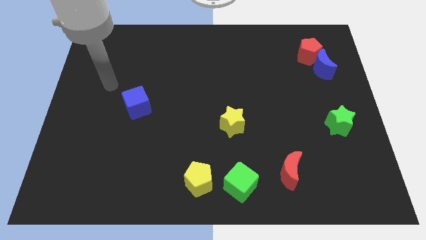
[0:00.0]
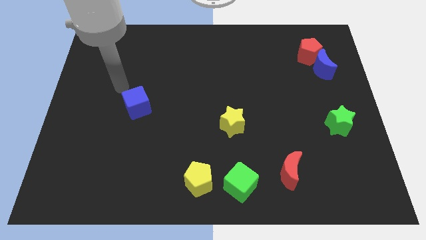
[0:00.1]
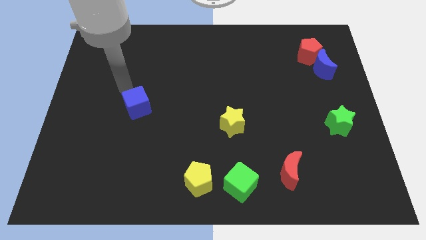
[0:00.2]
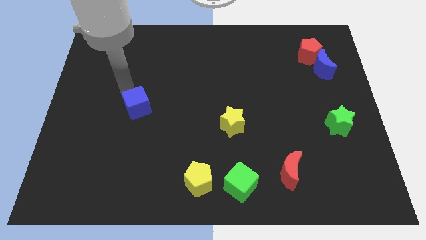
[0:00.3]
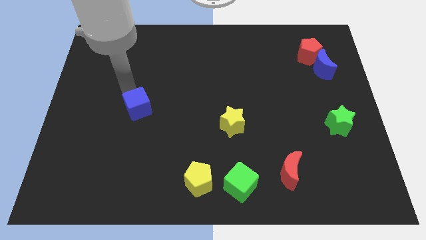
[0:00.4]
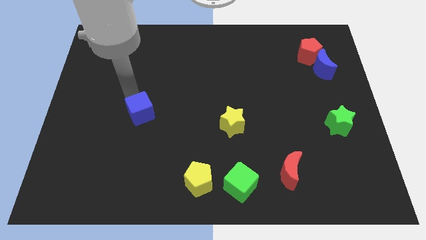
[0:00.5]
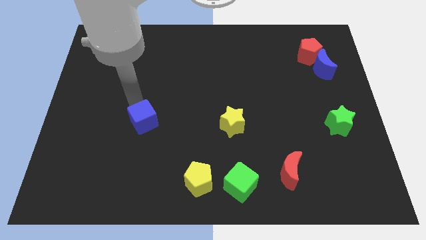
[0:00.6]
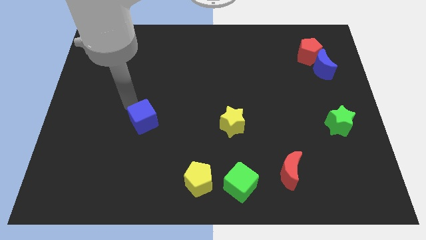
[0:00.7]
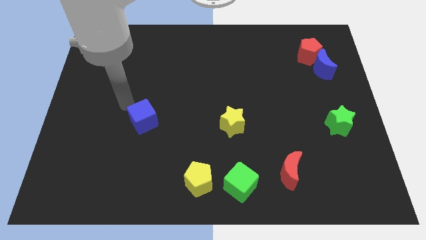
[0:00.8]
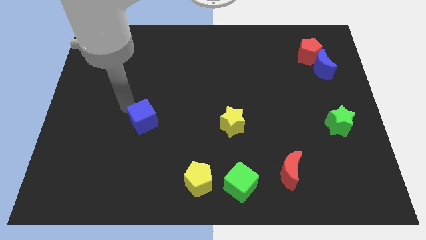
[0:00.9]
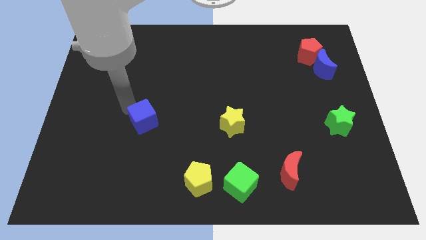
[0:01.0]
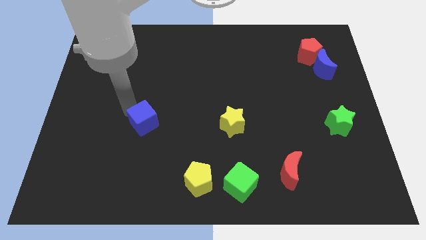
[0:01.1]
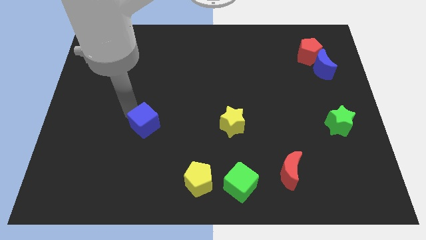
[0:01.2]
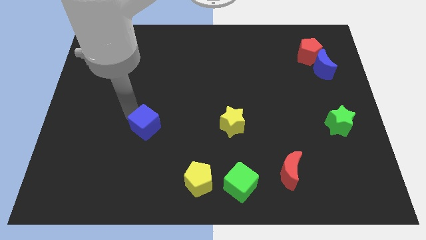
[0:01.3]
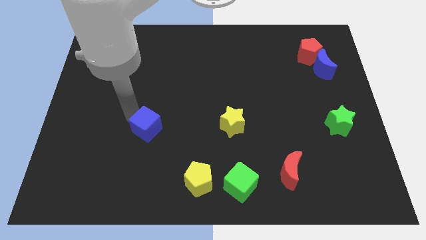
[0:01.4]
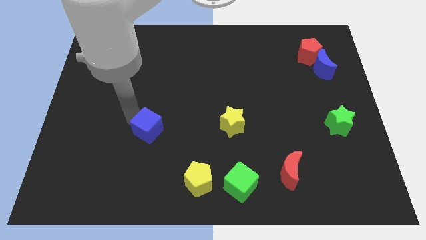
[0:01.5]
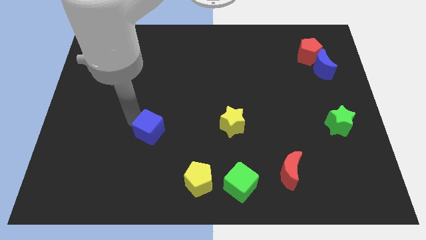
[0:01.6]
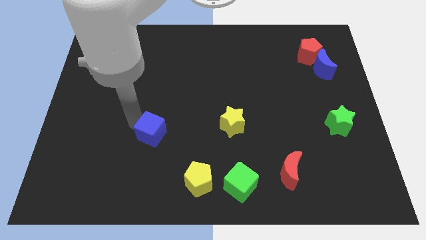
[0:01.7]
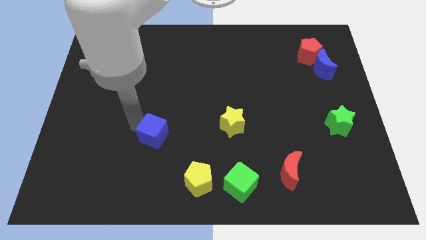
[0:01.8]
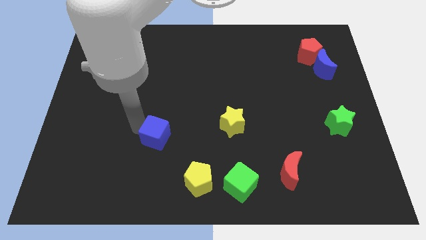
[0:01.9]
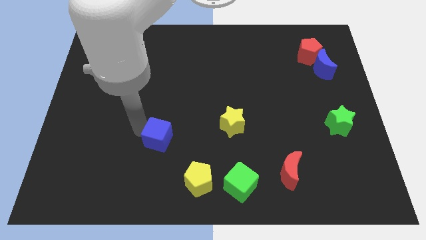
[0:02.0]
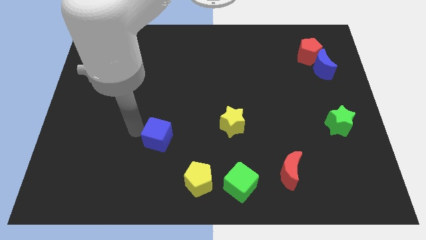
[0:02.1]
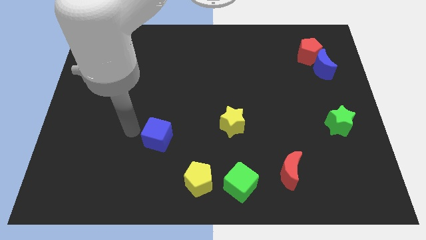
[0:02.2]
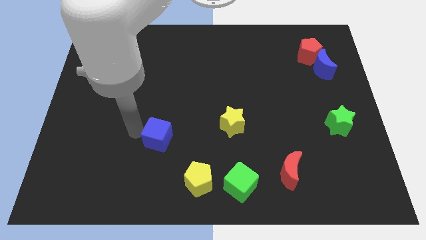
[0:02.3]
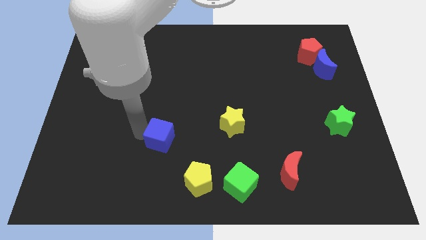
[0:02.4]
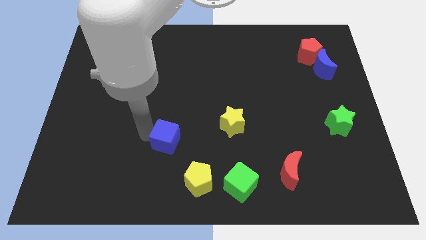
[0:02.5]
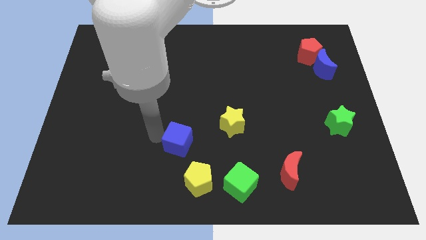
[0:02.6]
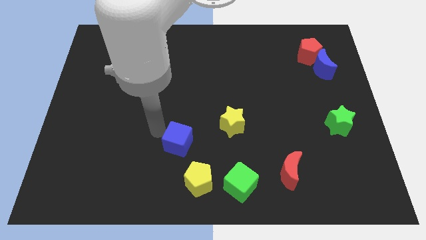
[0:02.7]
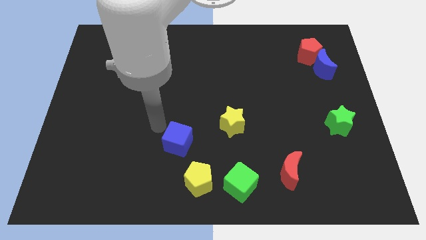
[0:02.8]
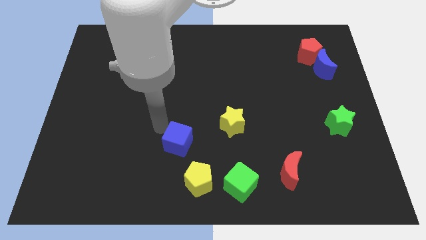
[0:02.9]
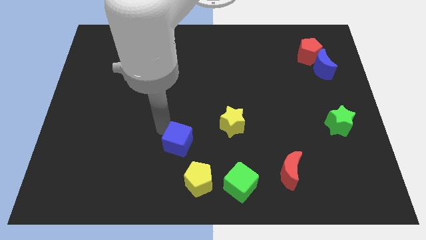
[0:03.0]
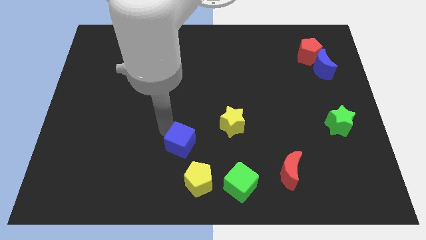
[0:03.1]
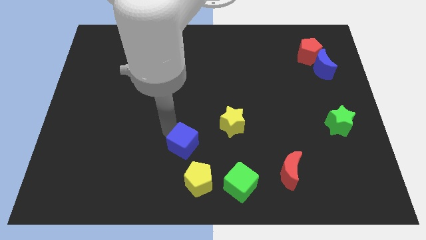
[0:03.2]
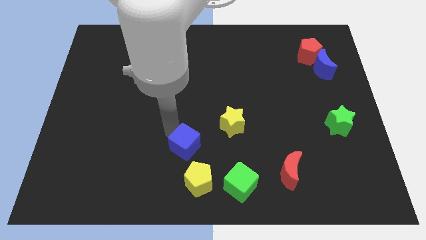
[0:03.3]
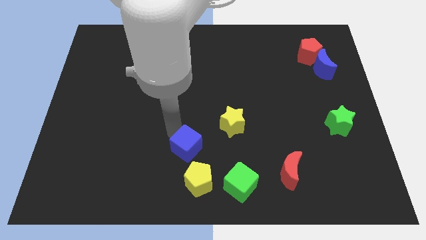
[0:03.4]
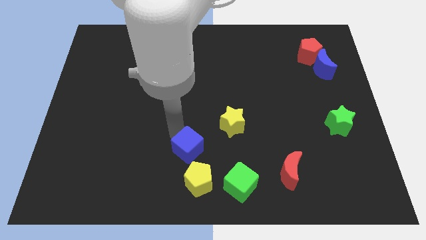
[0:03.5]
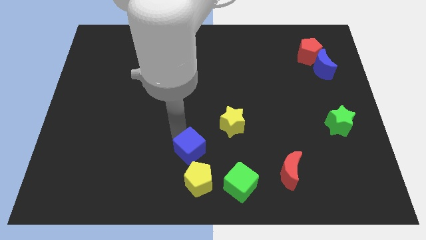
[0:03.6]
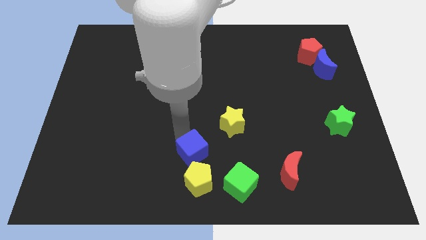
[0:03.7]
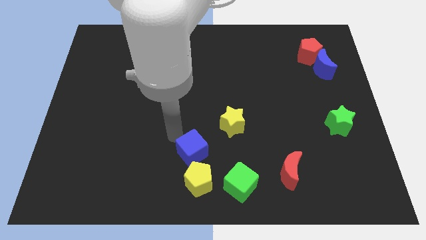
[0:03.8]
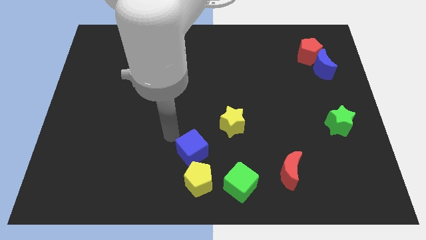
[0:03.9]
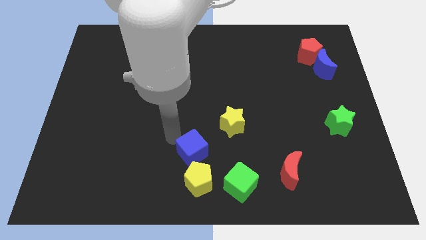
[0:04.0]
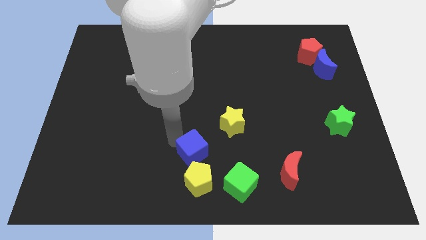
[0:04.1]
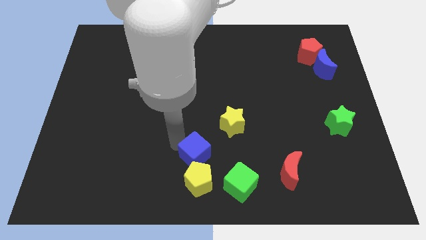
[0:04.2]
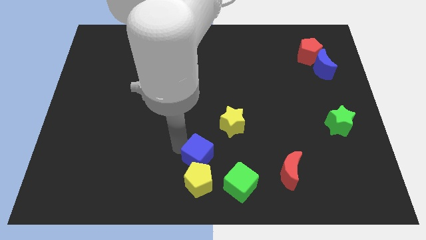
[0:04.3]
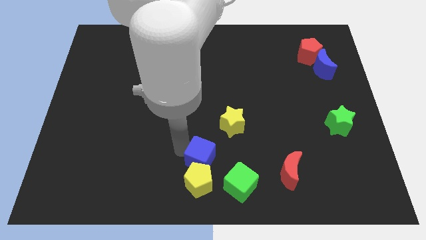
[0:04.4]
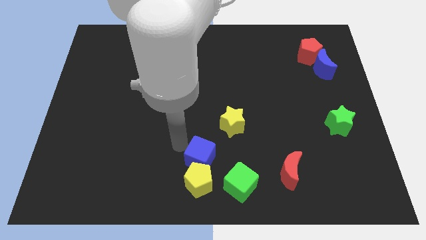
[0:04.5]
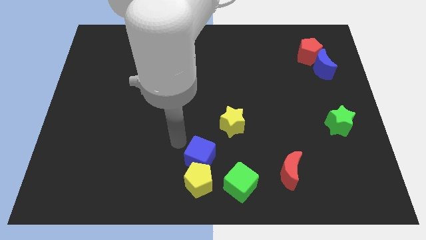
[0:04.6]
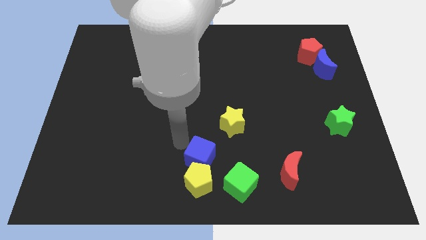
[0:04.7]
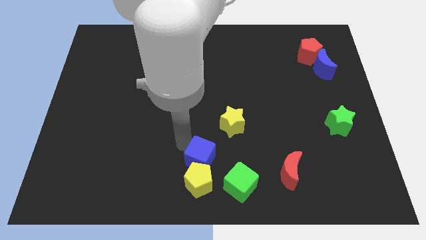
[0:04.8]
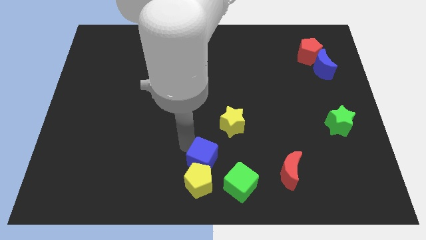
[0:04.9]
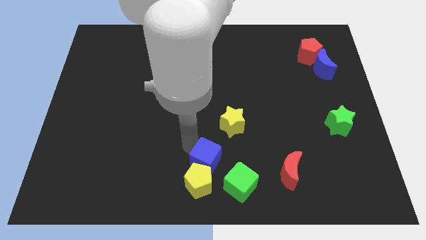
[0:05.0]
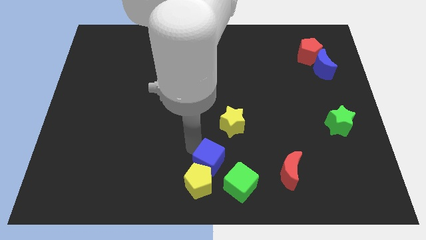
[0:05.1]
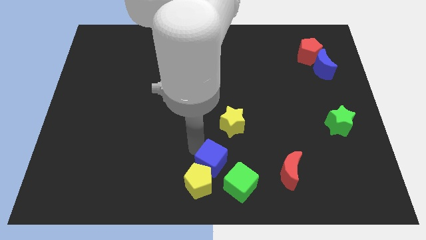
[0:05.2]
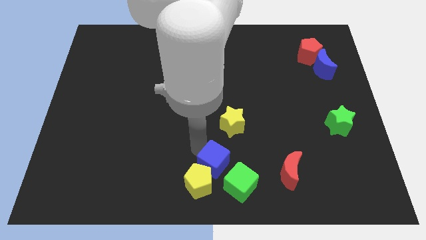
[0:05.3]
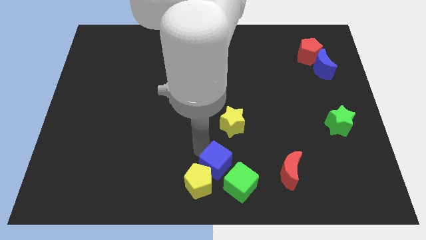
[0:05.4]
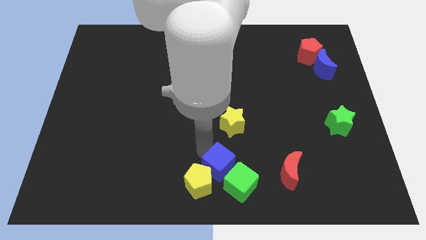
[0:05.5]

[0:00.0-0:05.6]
put the blue cube towards the green cube

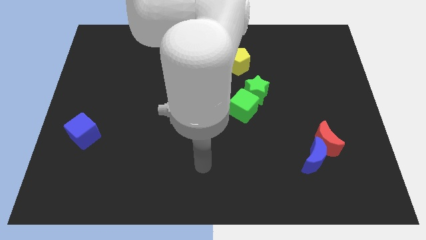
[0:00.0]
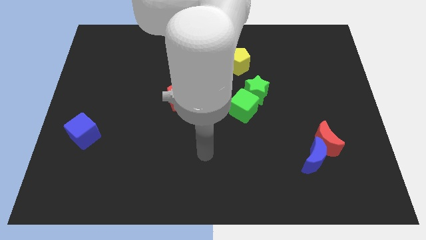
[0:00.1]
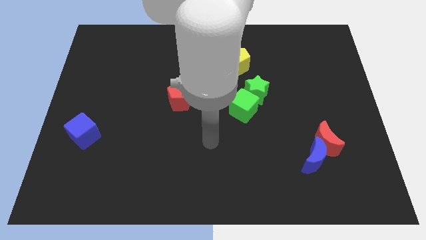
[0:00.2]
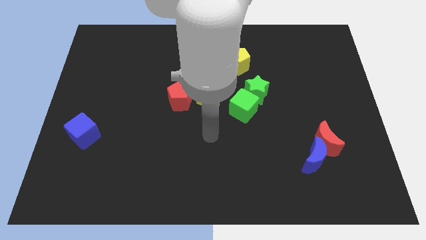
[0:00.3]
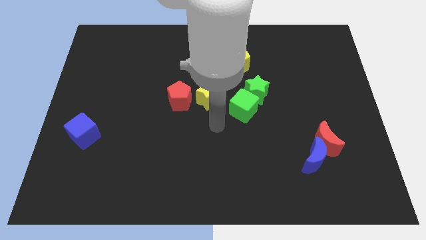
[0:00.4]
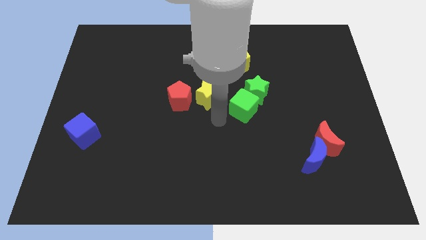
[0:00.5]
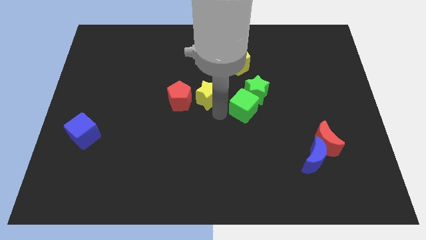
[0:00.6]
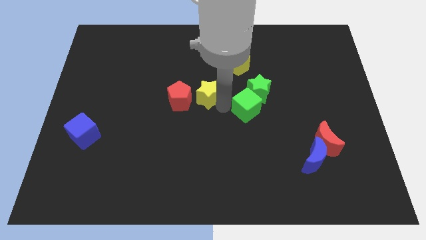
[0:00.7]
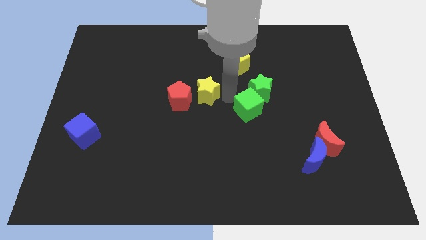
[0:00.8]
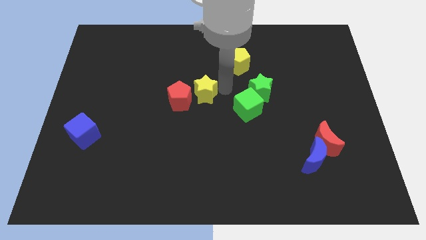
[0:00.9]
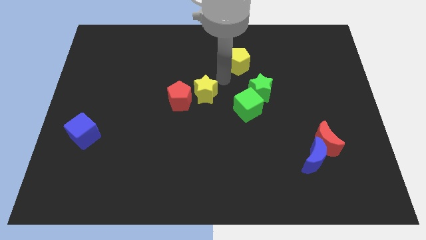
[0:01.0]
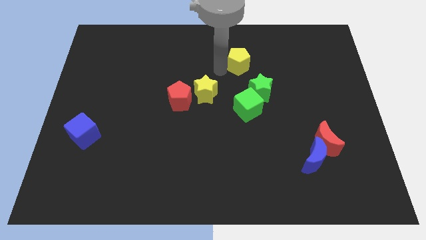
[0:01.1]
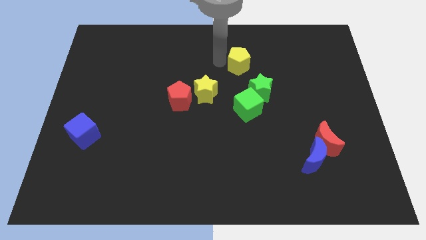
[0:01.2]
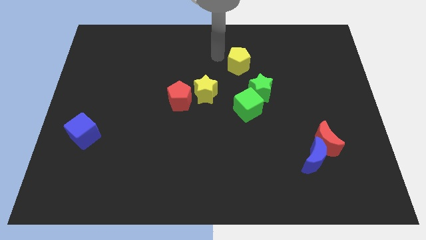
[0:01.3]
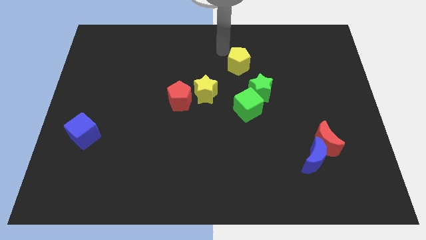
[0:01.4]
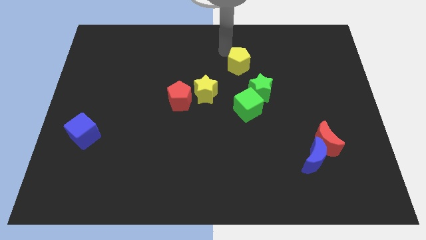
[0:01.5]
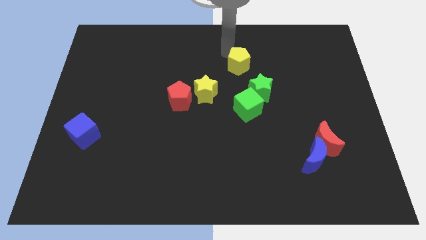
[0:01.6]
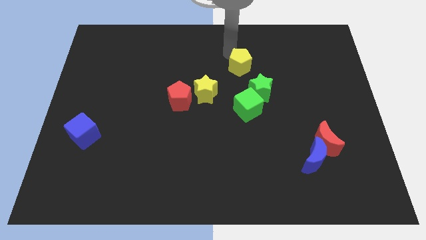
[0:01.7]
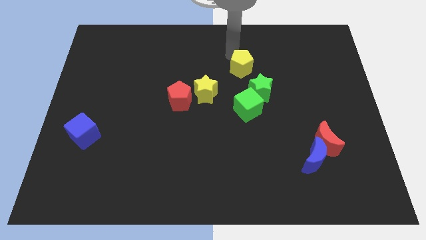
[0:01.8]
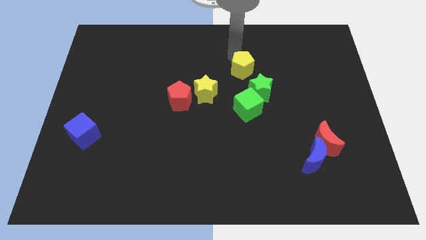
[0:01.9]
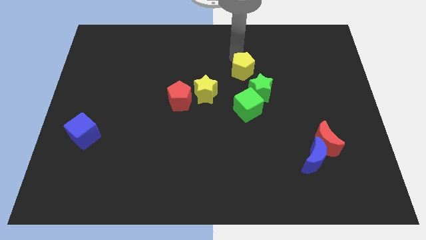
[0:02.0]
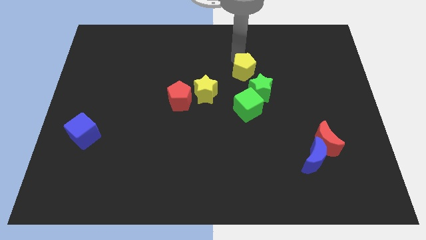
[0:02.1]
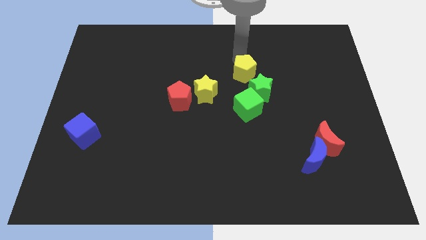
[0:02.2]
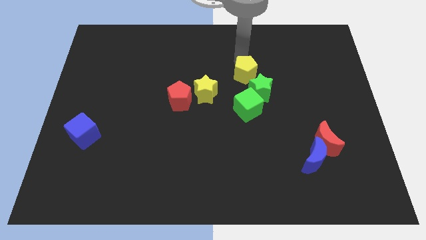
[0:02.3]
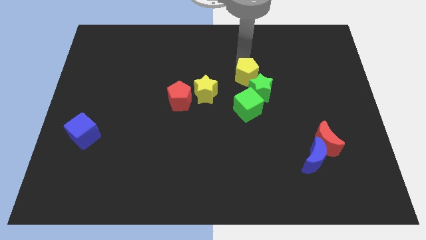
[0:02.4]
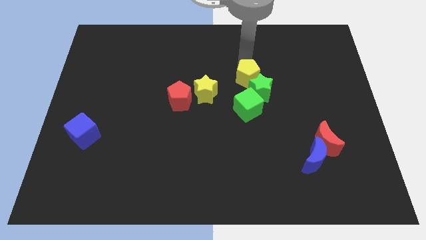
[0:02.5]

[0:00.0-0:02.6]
move the yellow pentagon to the green star
